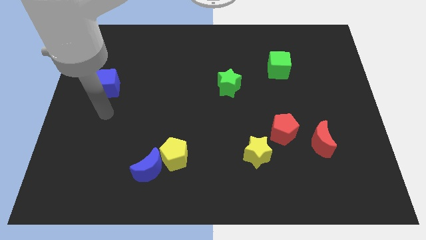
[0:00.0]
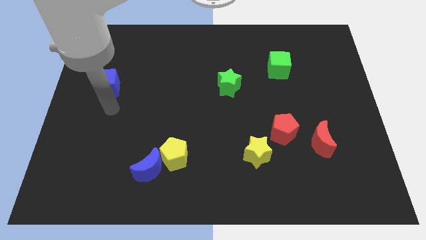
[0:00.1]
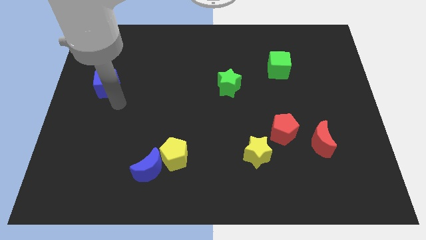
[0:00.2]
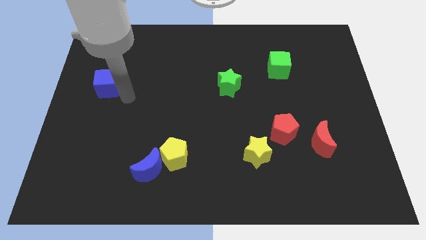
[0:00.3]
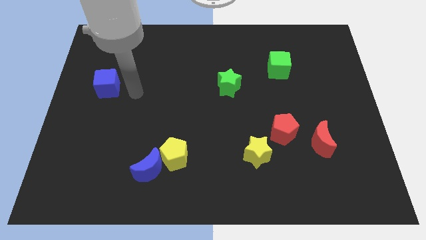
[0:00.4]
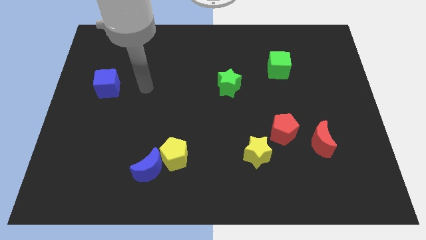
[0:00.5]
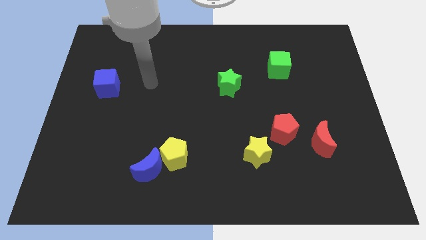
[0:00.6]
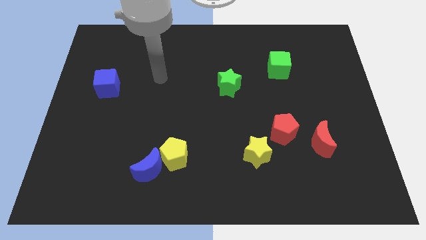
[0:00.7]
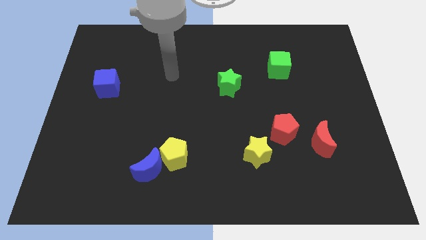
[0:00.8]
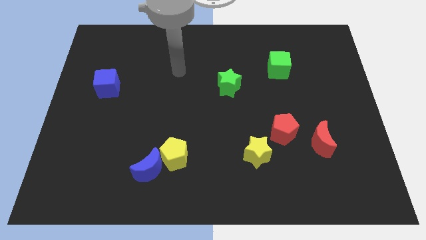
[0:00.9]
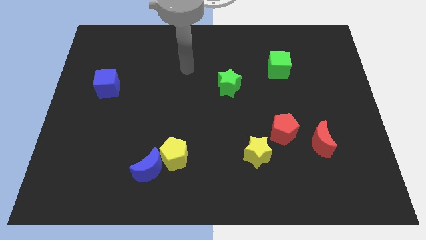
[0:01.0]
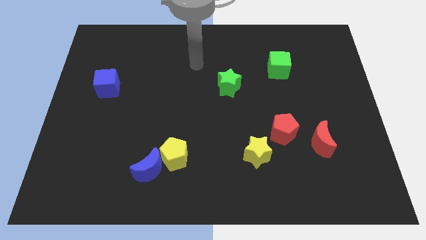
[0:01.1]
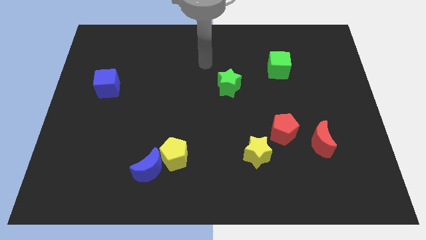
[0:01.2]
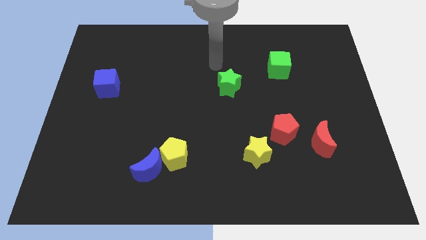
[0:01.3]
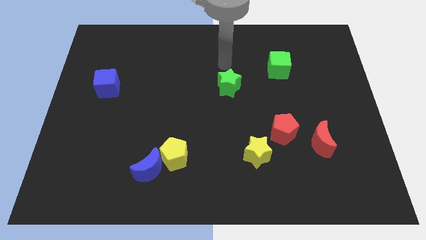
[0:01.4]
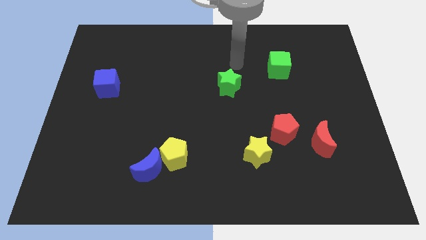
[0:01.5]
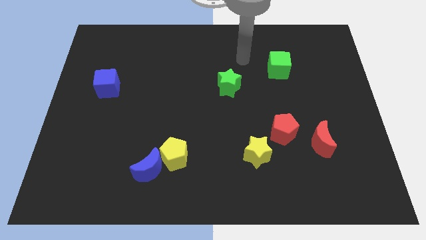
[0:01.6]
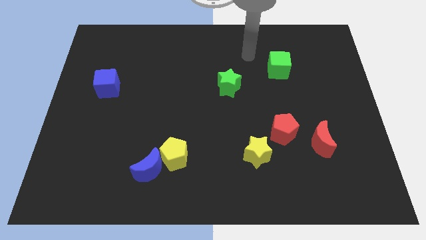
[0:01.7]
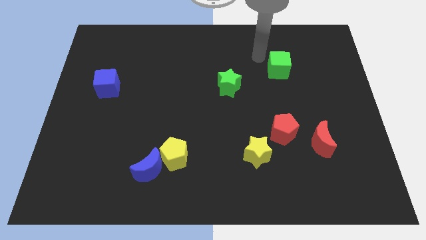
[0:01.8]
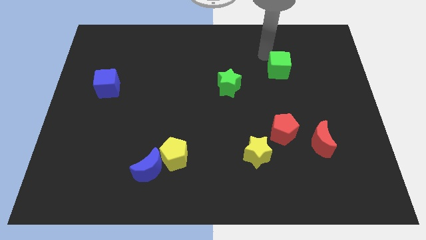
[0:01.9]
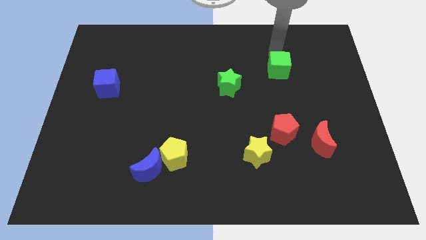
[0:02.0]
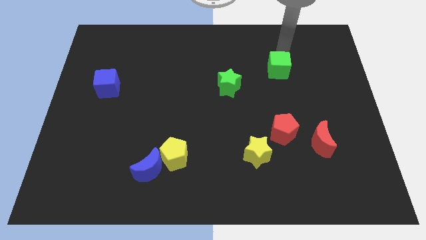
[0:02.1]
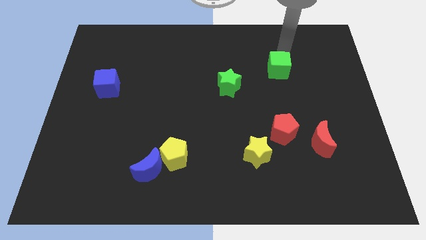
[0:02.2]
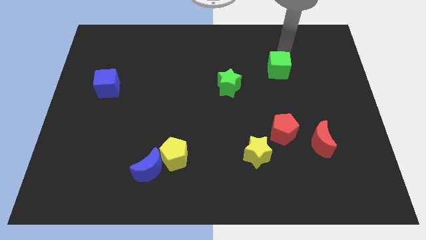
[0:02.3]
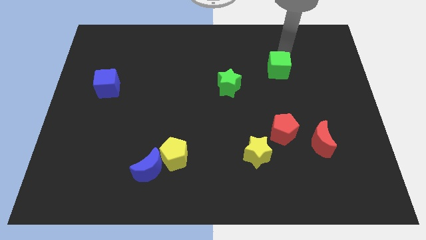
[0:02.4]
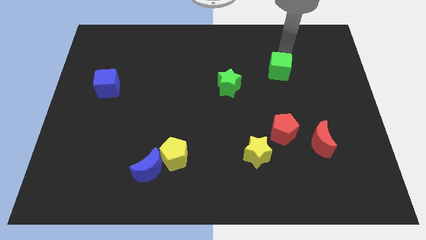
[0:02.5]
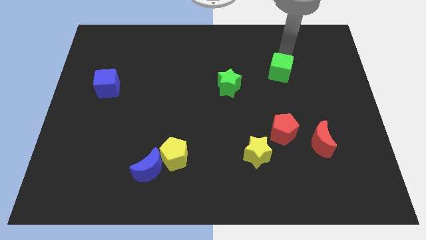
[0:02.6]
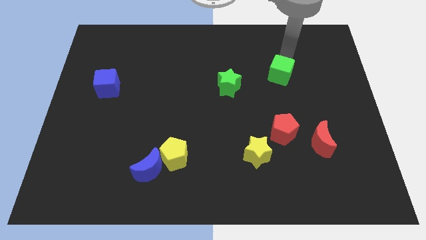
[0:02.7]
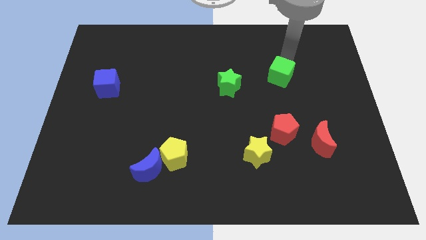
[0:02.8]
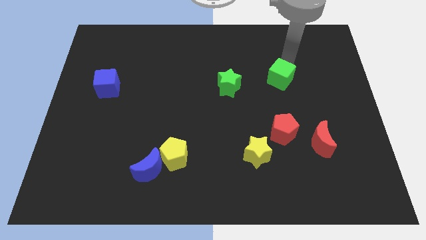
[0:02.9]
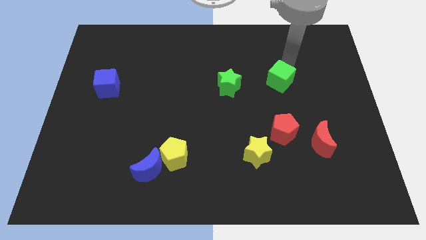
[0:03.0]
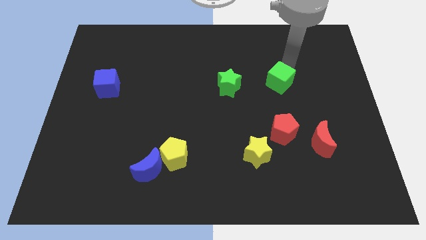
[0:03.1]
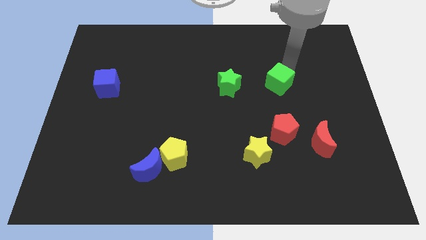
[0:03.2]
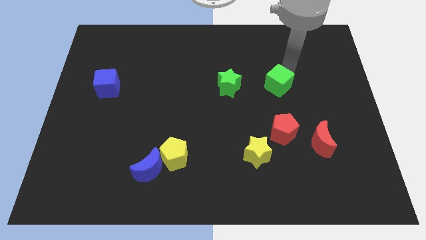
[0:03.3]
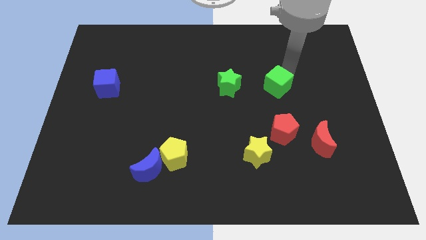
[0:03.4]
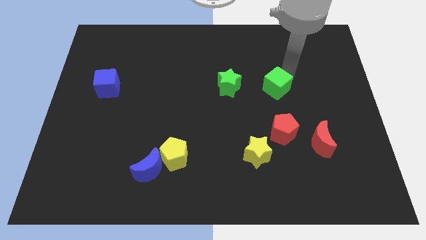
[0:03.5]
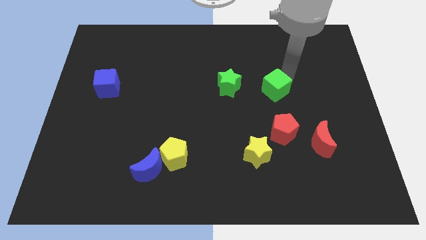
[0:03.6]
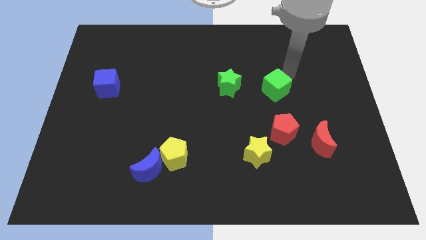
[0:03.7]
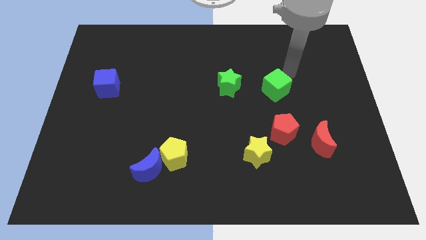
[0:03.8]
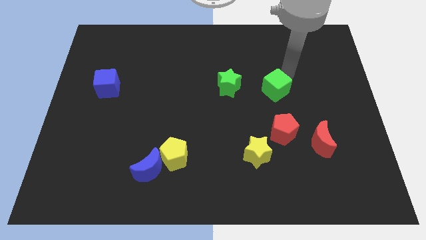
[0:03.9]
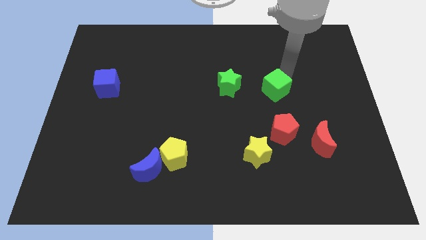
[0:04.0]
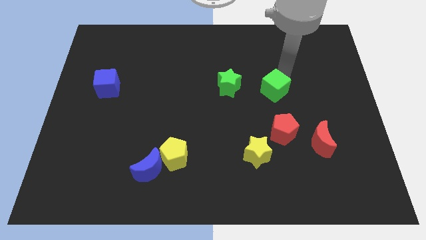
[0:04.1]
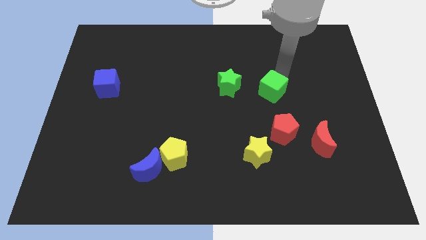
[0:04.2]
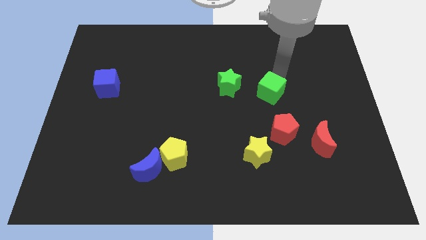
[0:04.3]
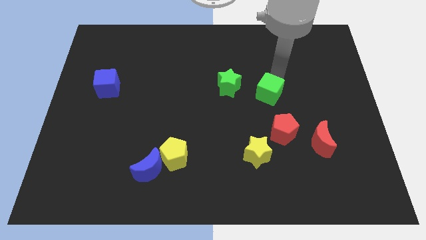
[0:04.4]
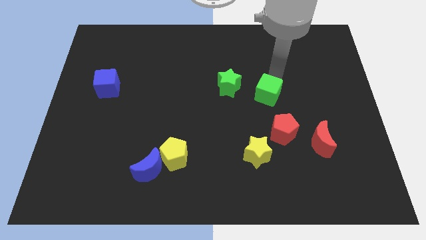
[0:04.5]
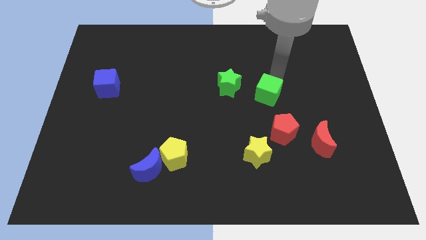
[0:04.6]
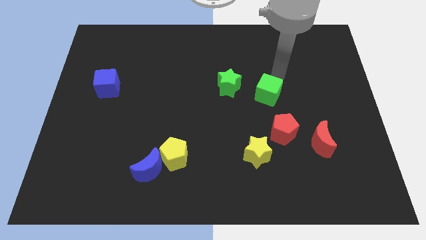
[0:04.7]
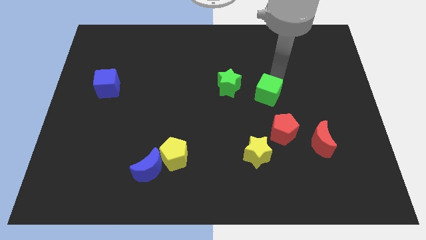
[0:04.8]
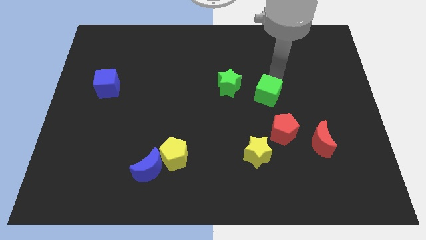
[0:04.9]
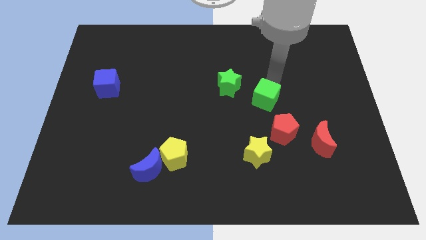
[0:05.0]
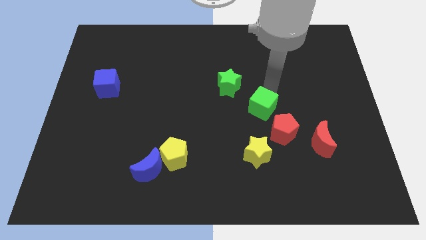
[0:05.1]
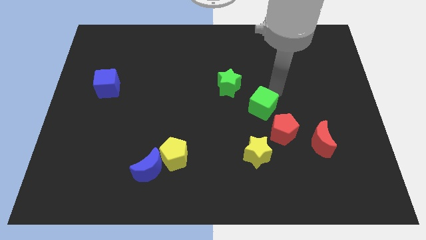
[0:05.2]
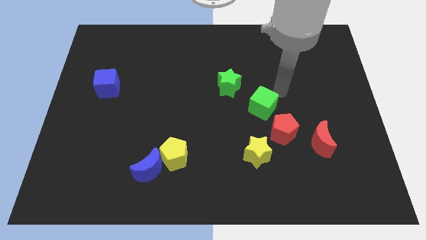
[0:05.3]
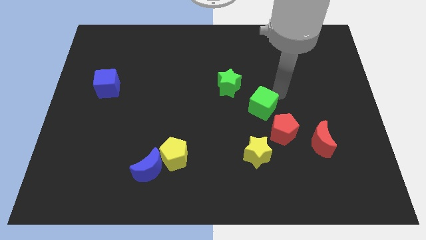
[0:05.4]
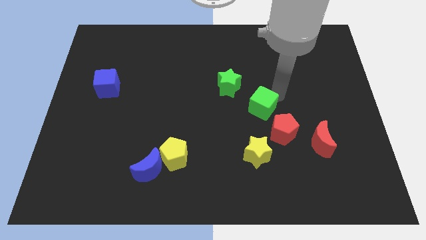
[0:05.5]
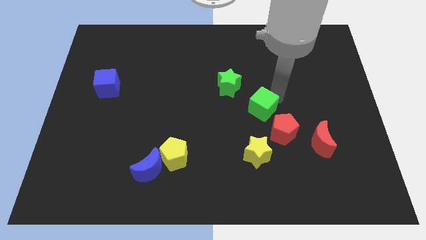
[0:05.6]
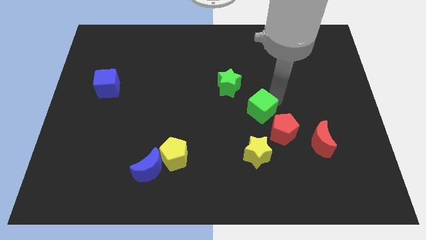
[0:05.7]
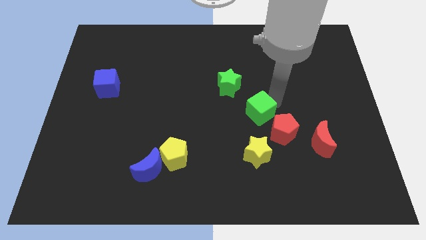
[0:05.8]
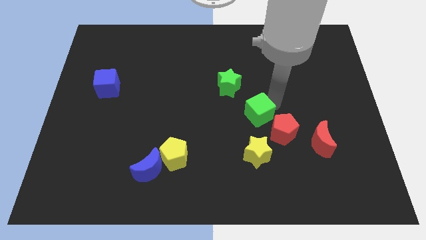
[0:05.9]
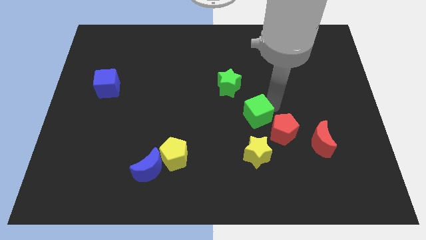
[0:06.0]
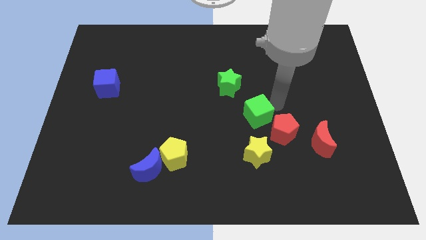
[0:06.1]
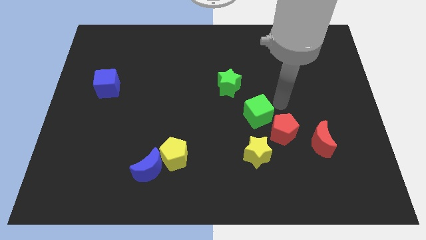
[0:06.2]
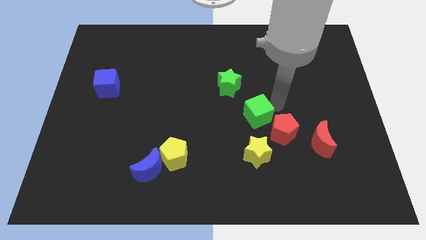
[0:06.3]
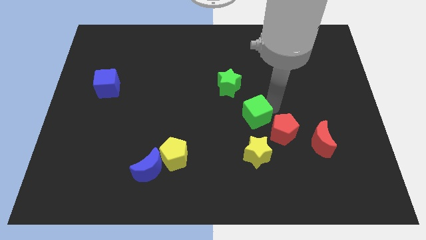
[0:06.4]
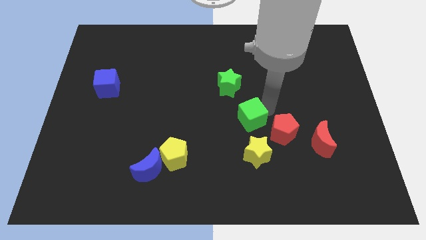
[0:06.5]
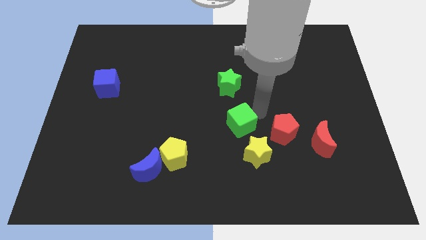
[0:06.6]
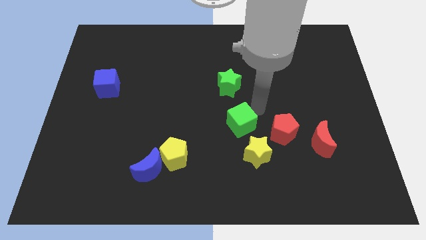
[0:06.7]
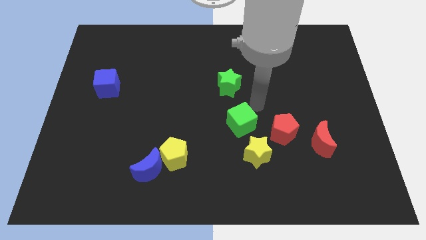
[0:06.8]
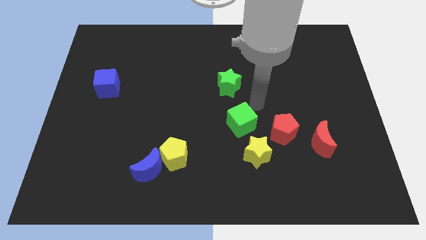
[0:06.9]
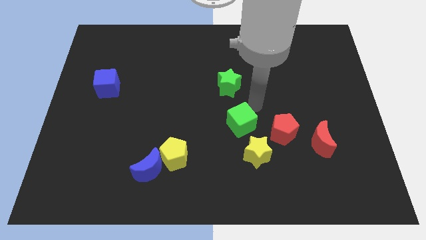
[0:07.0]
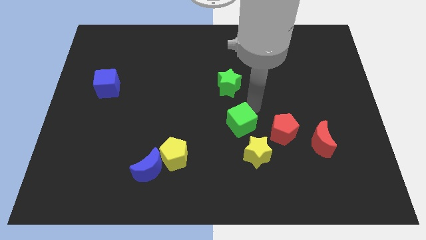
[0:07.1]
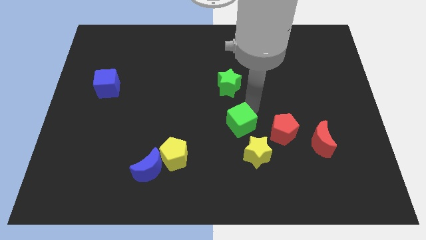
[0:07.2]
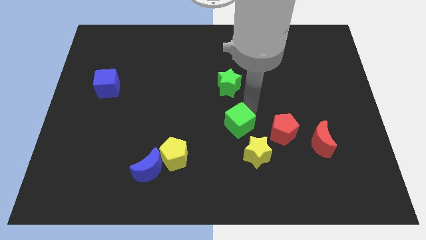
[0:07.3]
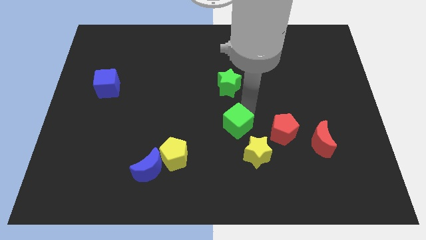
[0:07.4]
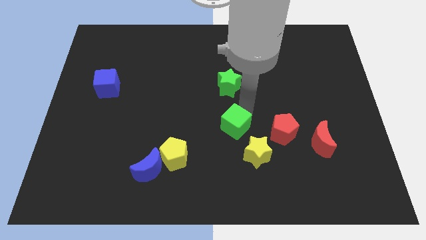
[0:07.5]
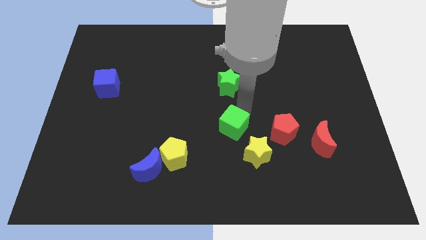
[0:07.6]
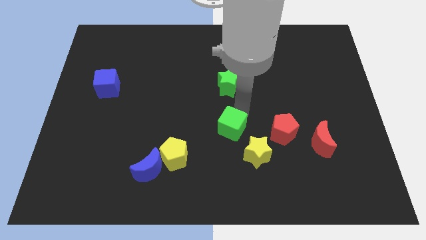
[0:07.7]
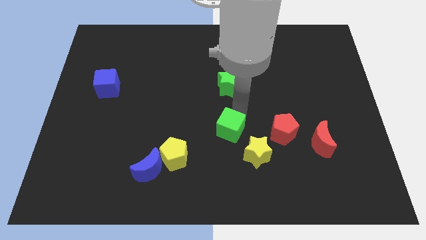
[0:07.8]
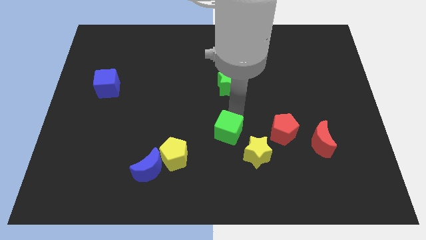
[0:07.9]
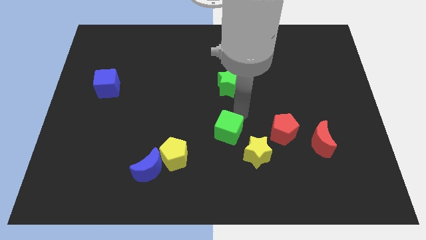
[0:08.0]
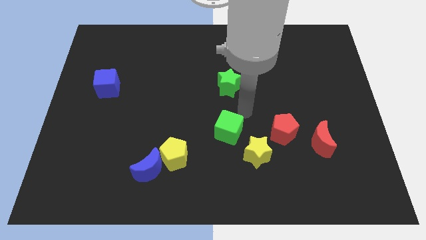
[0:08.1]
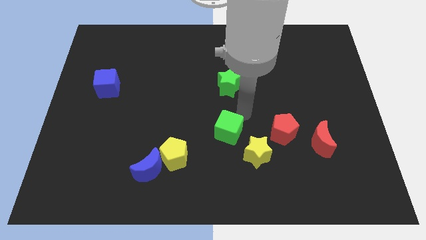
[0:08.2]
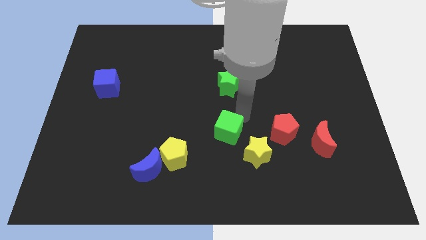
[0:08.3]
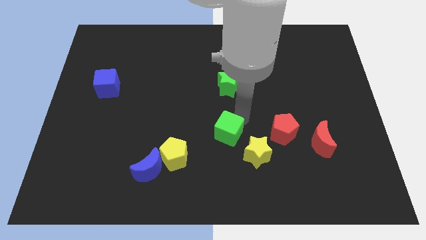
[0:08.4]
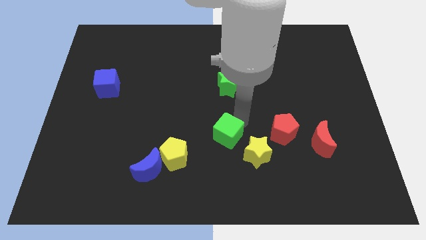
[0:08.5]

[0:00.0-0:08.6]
slide the green cube just left of the yellow star
